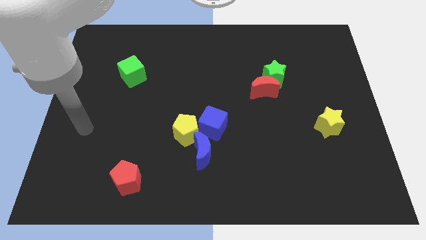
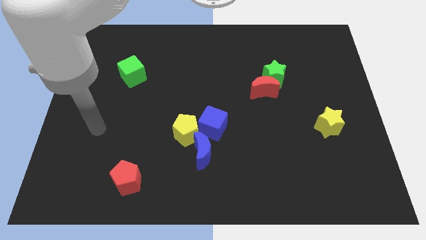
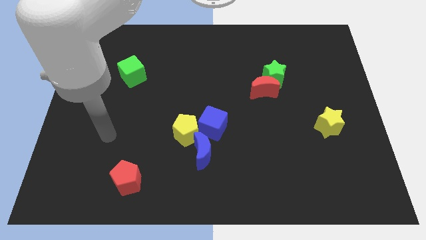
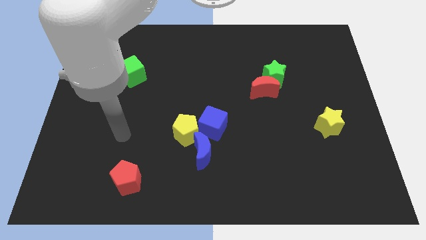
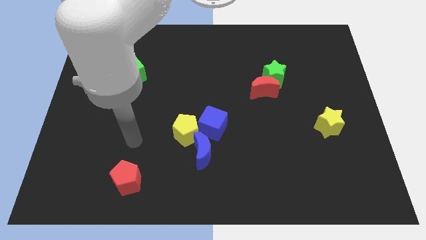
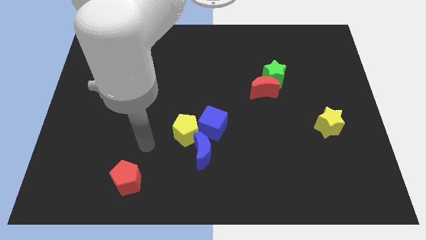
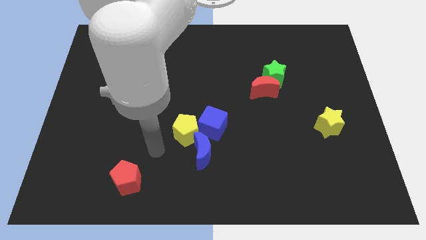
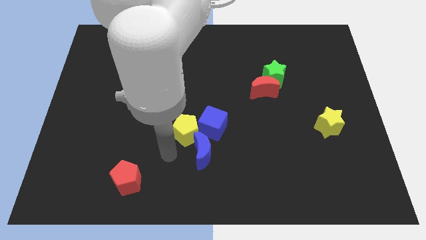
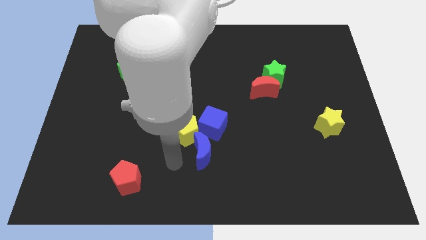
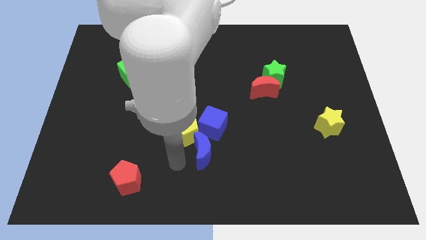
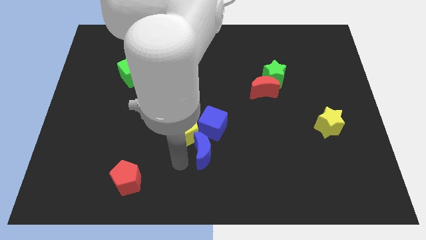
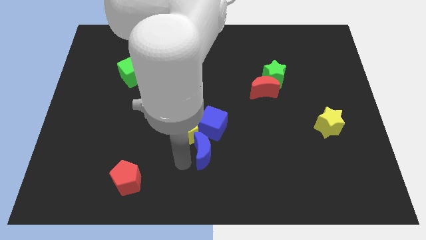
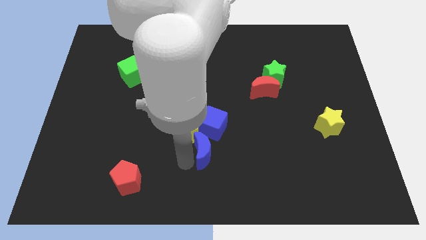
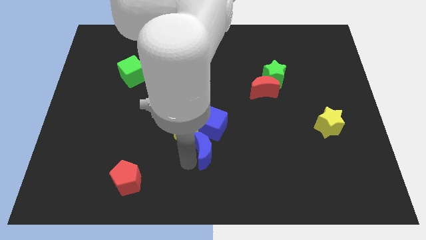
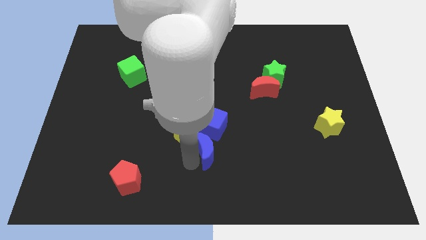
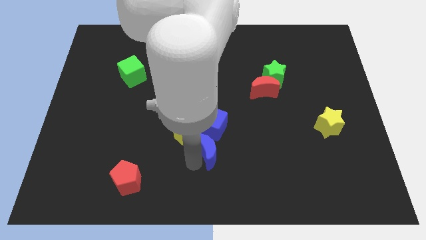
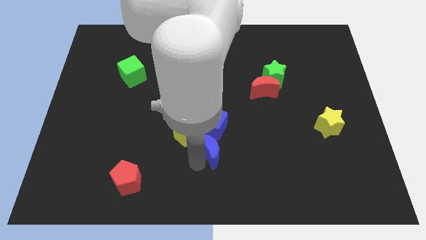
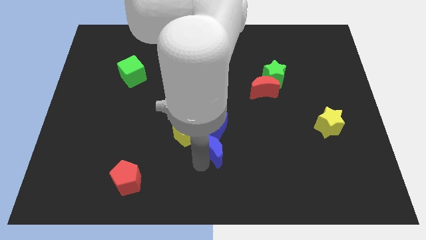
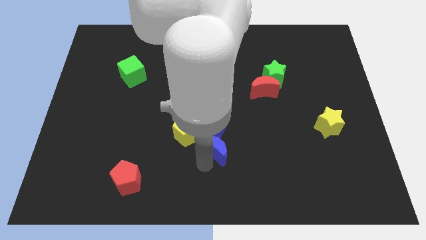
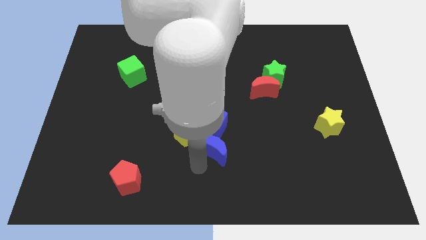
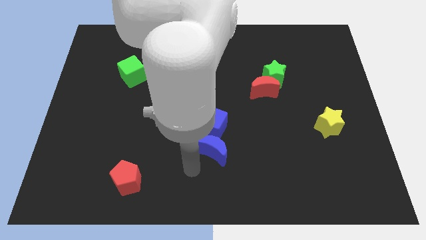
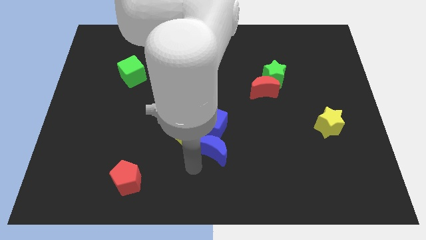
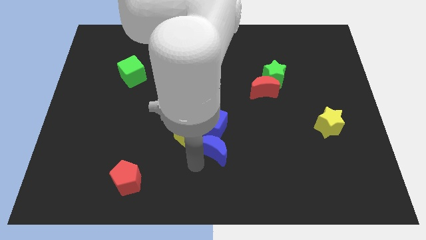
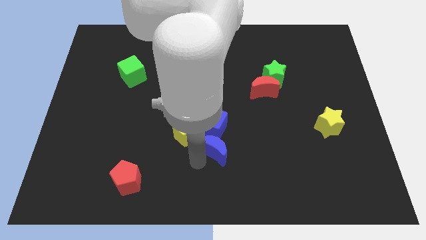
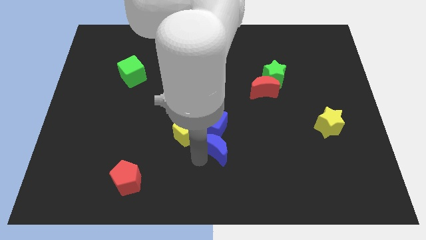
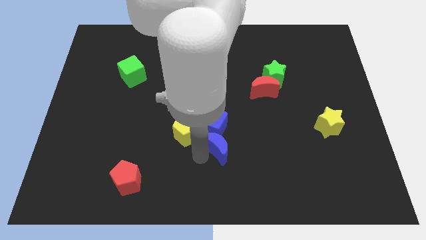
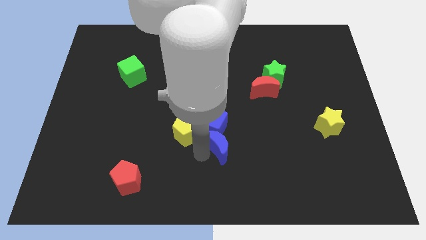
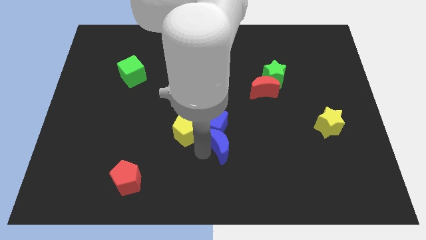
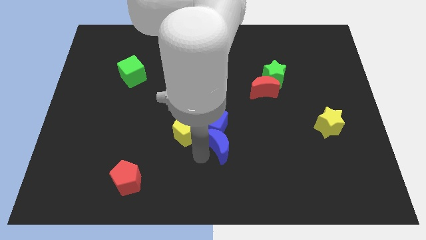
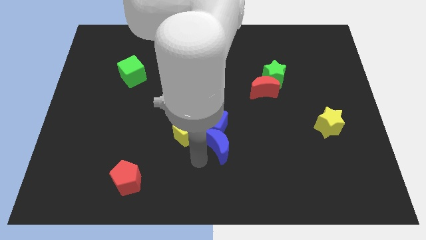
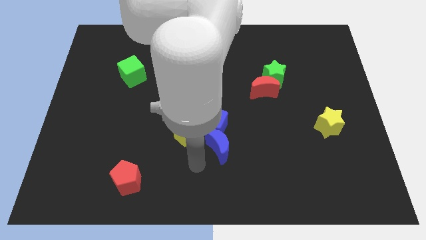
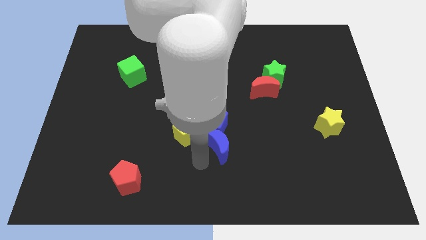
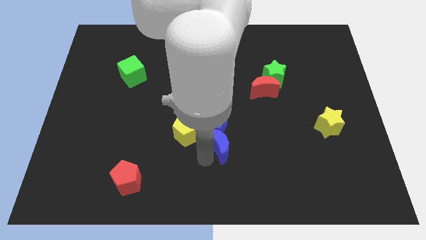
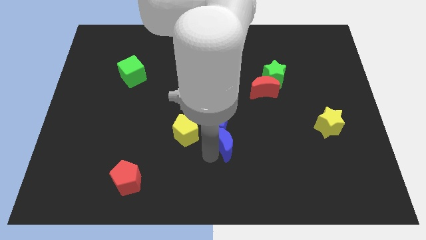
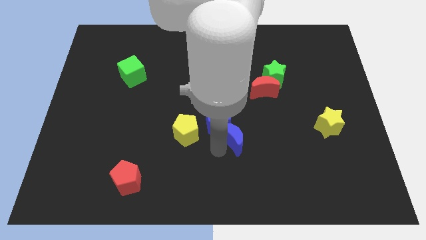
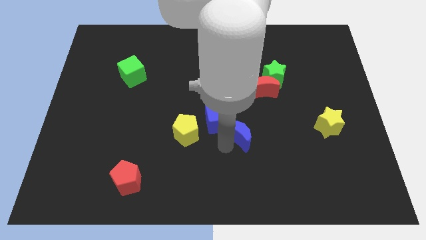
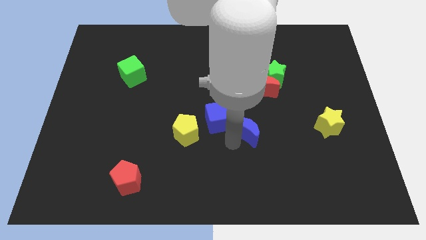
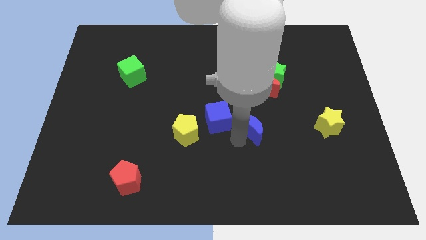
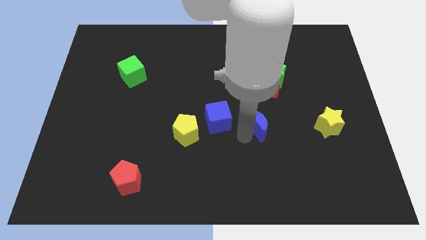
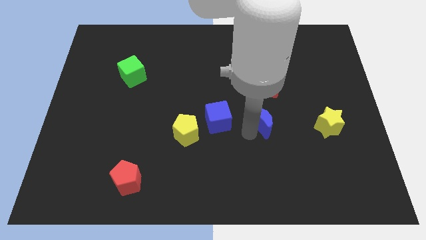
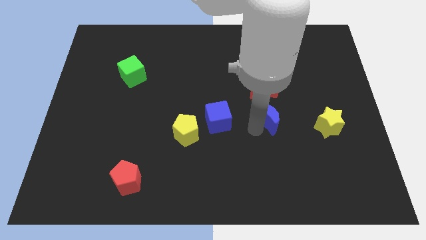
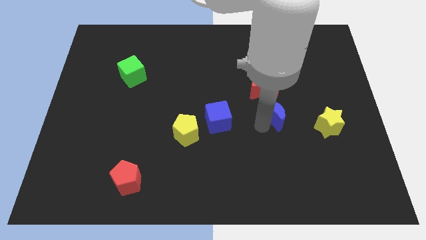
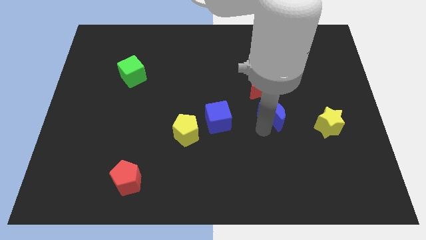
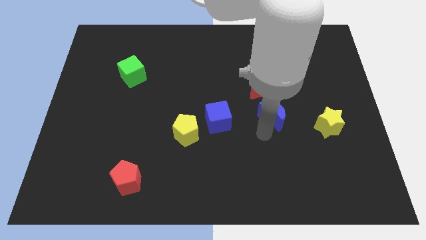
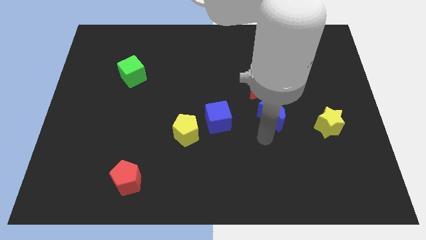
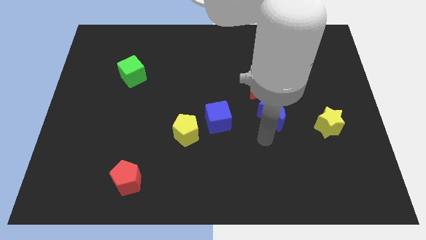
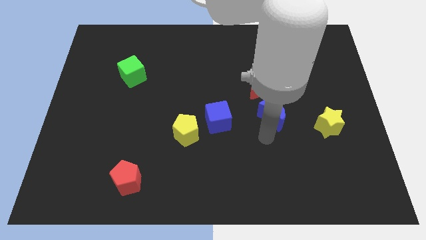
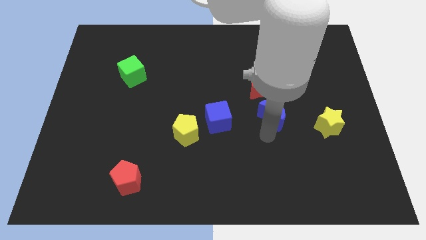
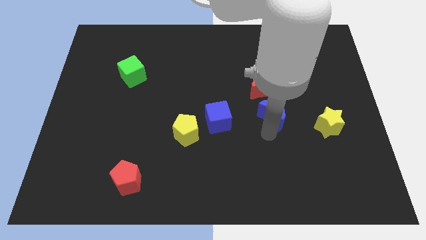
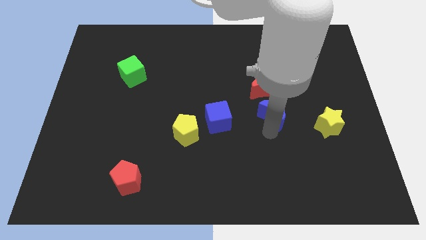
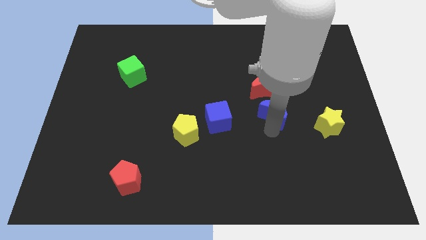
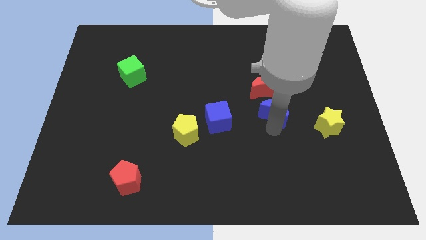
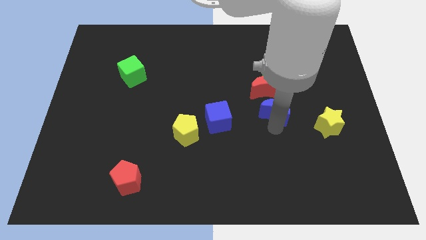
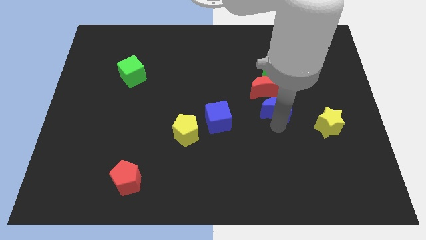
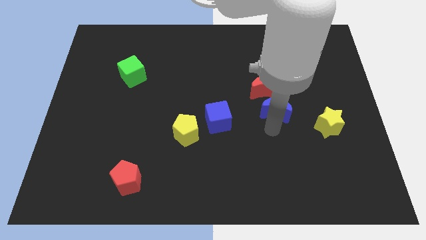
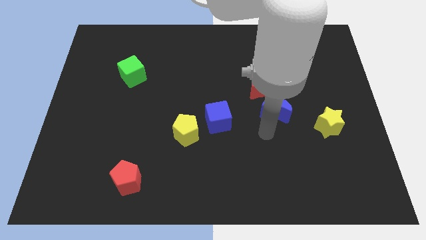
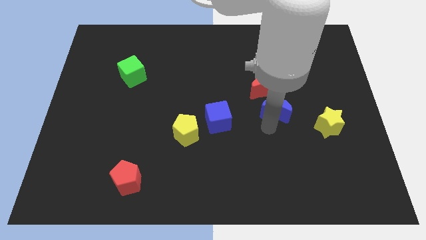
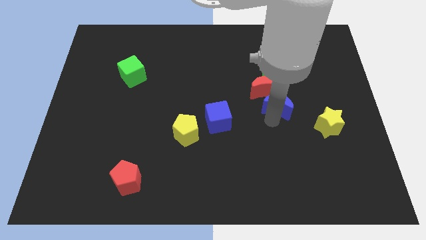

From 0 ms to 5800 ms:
push the blue moon diagonally upwards and to the right

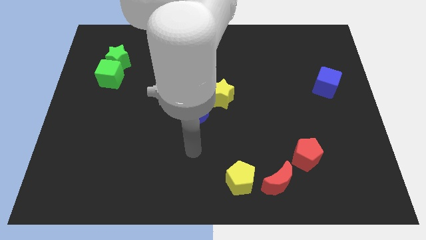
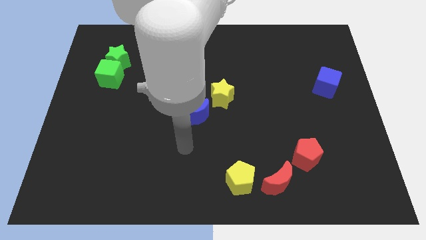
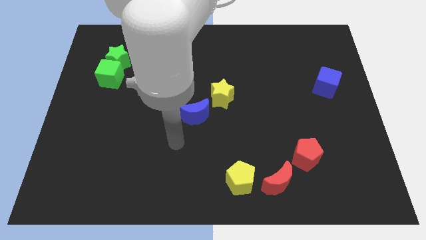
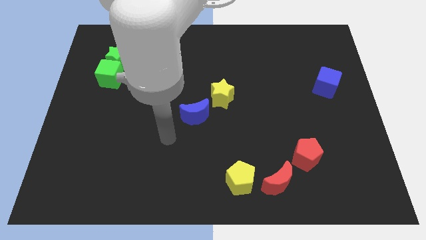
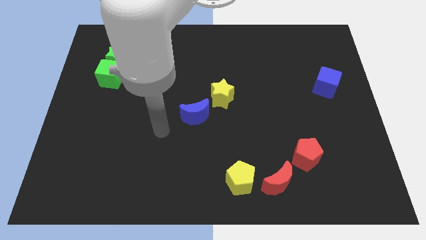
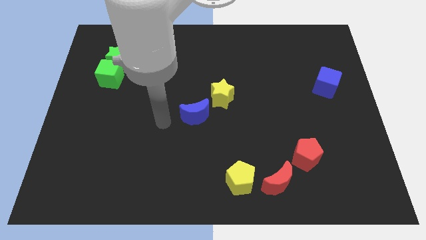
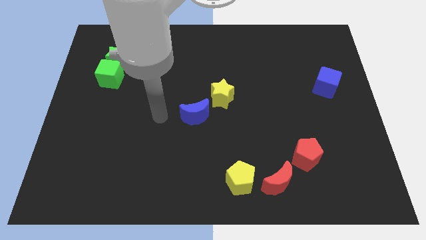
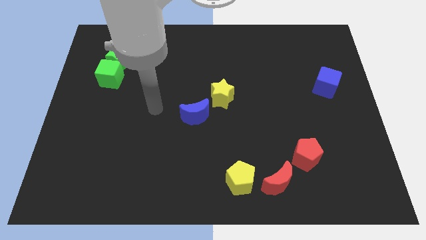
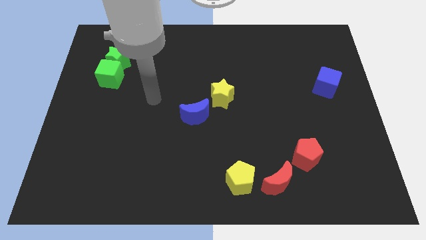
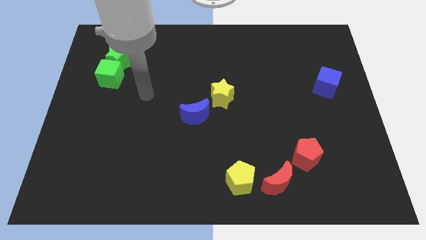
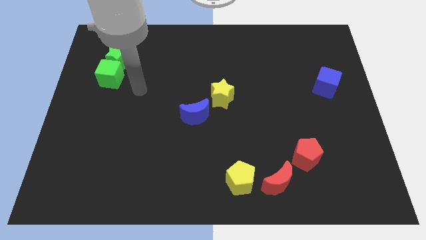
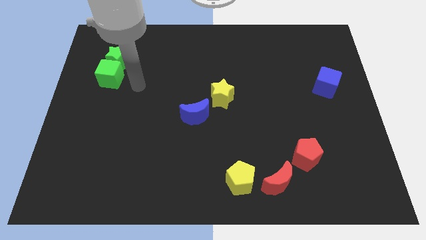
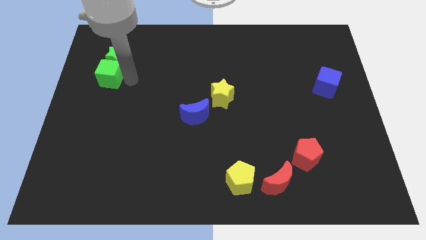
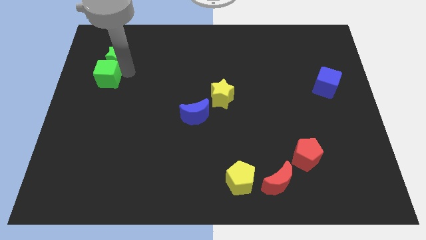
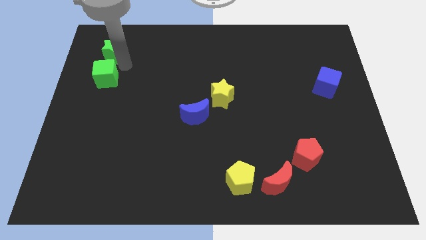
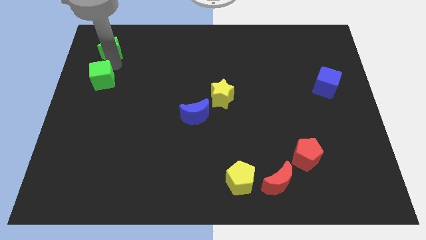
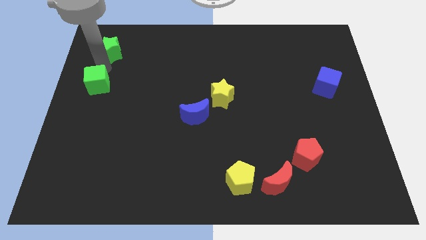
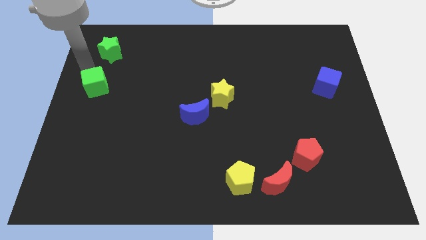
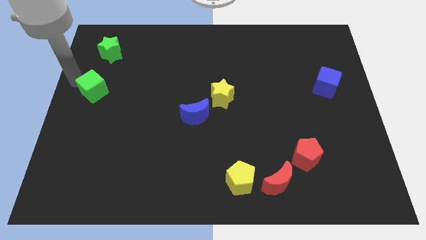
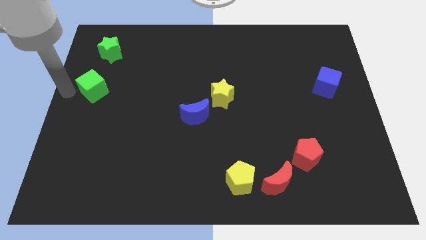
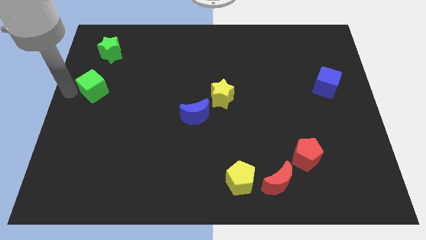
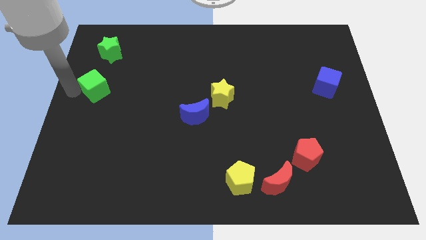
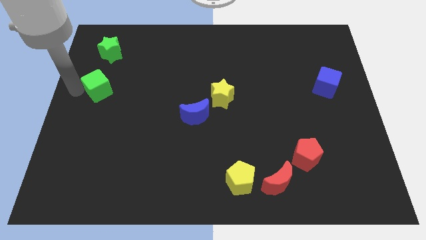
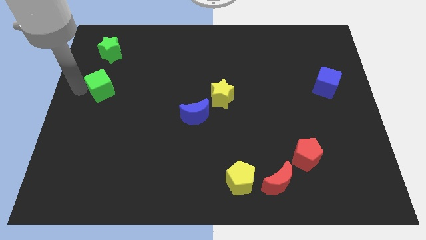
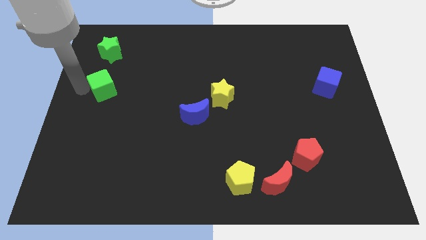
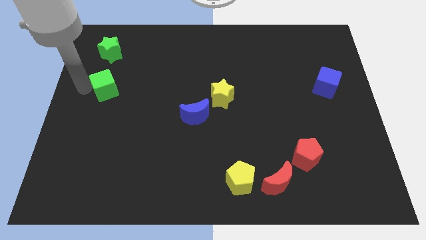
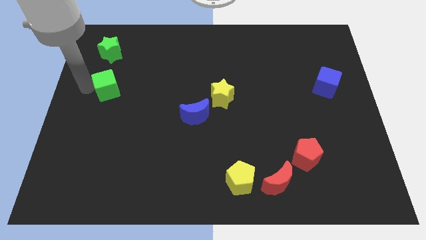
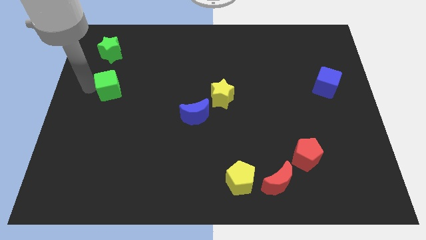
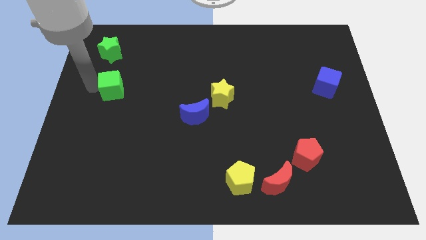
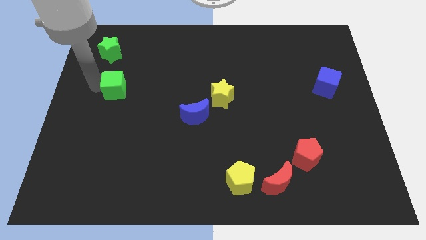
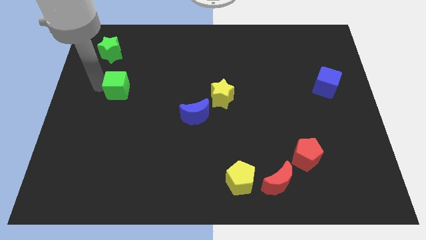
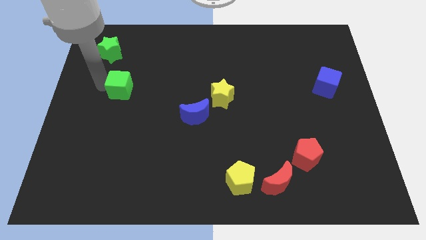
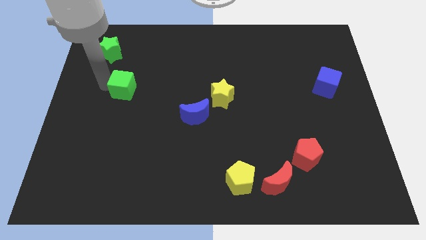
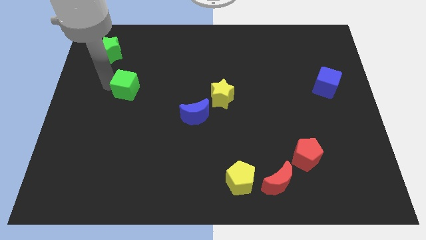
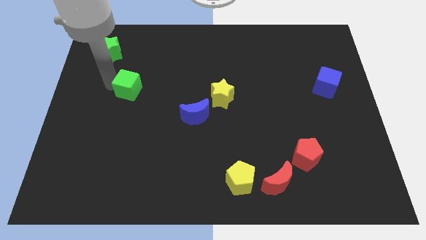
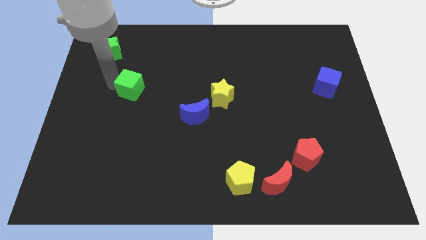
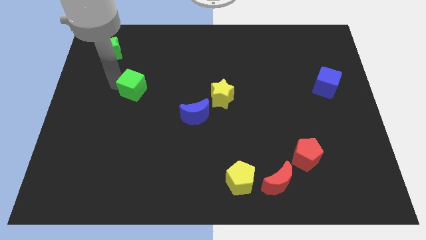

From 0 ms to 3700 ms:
move the green cube downwards and right diagonally a little
